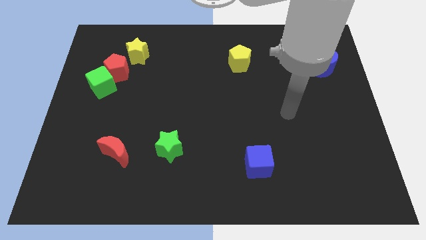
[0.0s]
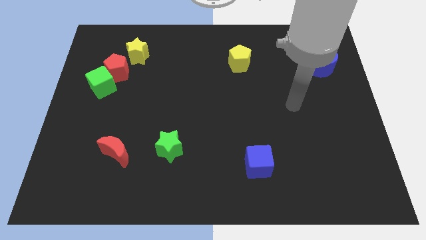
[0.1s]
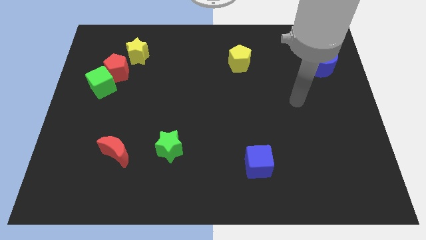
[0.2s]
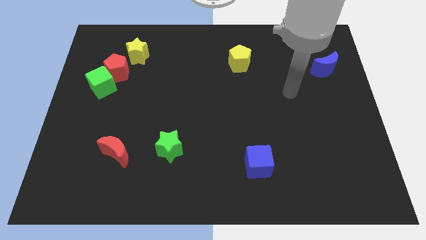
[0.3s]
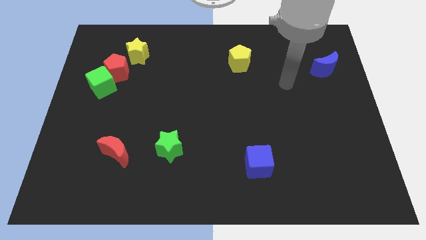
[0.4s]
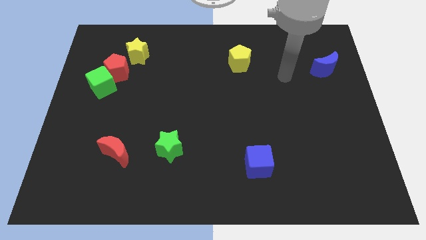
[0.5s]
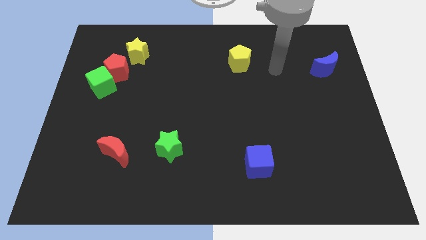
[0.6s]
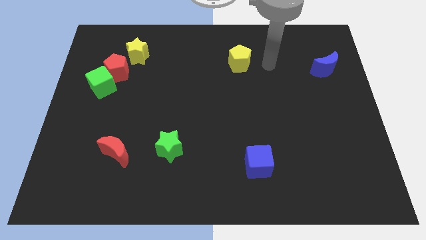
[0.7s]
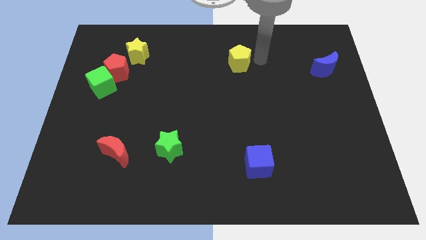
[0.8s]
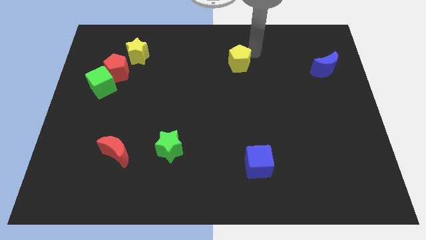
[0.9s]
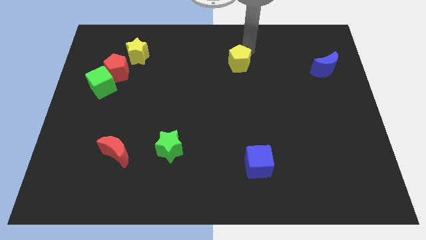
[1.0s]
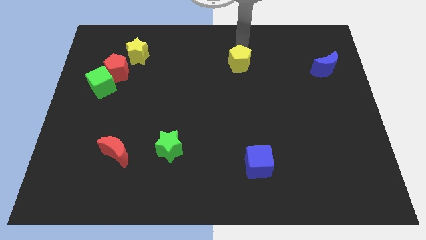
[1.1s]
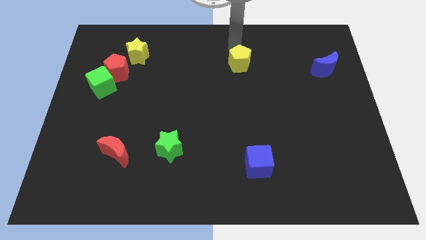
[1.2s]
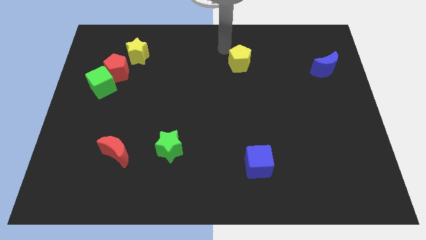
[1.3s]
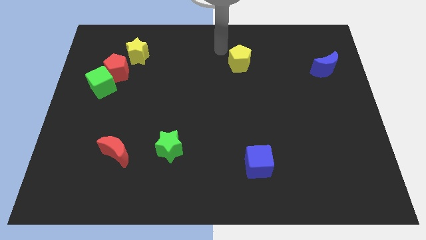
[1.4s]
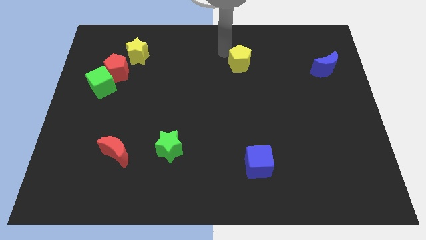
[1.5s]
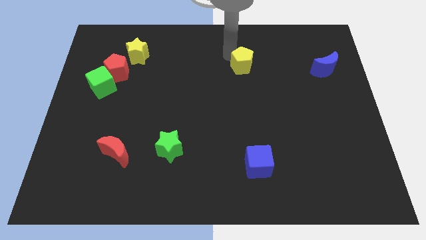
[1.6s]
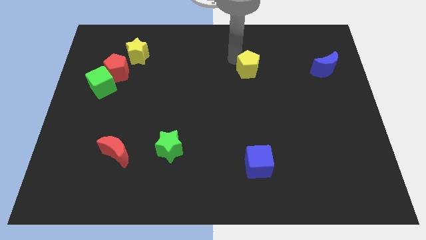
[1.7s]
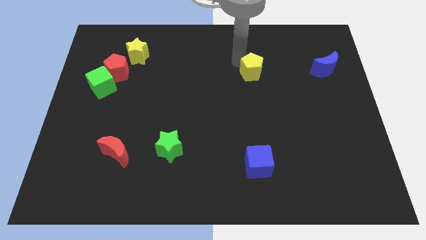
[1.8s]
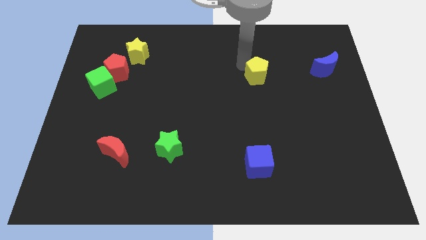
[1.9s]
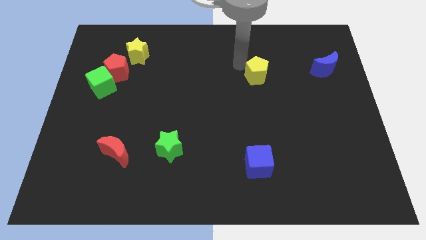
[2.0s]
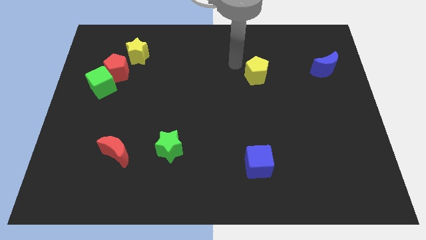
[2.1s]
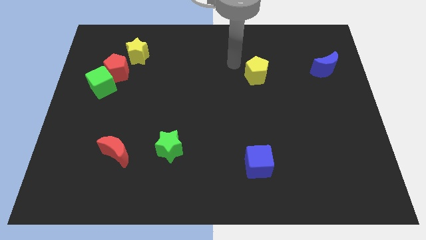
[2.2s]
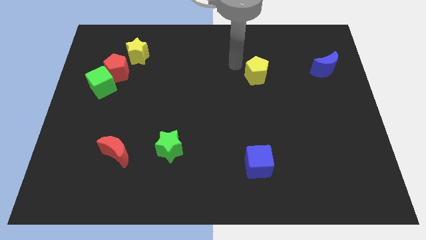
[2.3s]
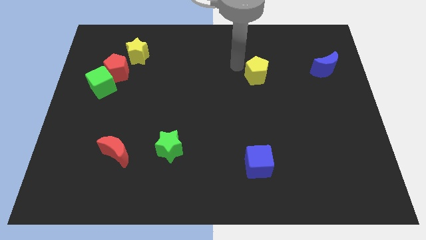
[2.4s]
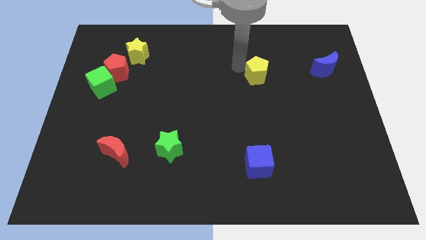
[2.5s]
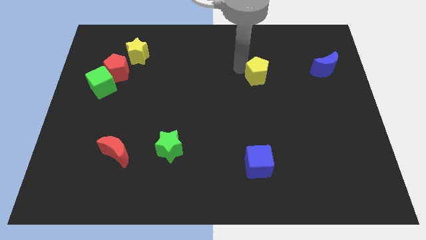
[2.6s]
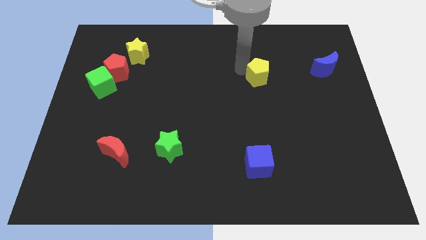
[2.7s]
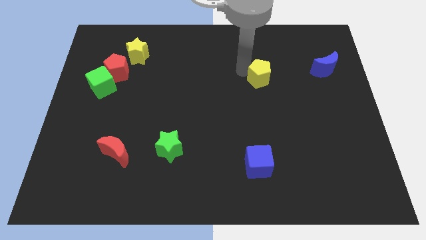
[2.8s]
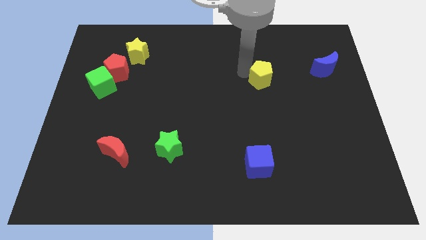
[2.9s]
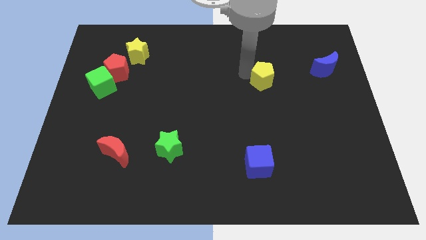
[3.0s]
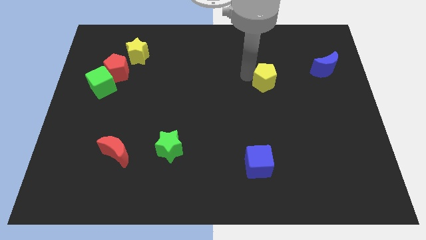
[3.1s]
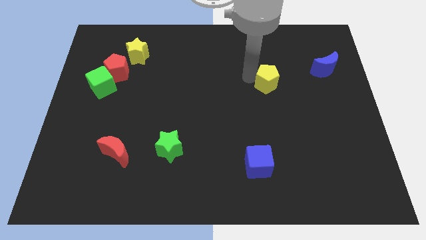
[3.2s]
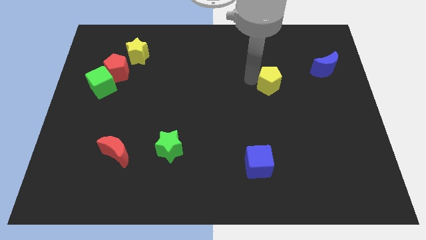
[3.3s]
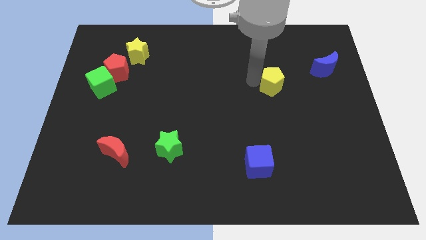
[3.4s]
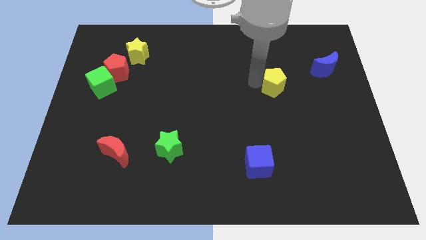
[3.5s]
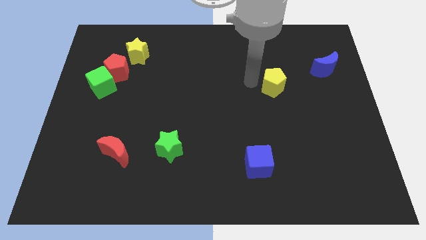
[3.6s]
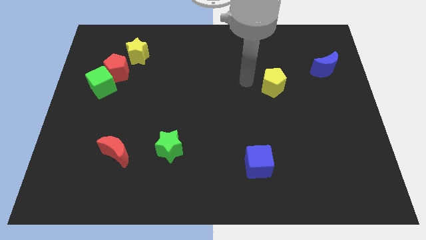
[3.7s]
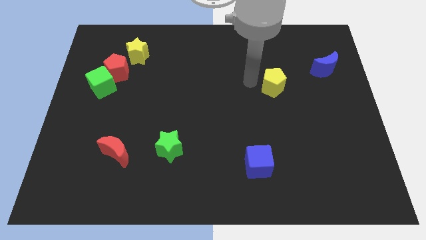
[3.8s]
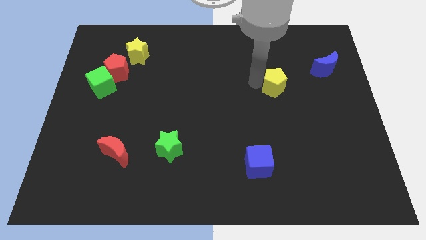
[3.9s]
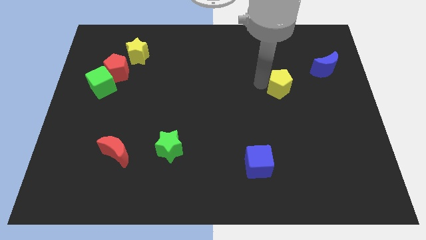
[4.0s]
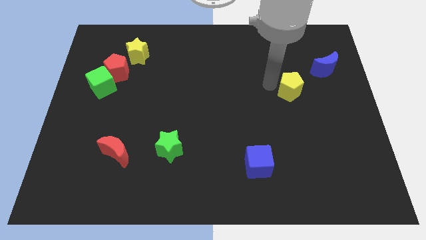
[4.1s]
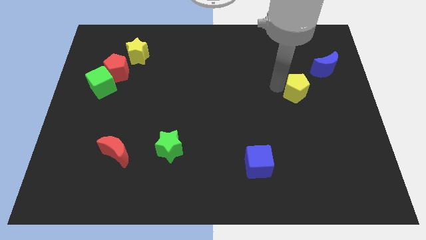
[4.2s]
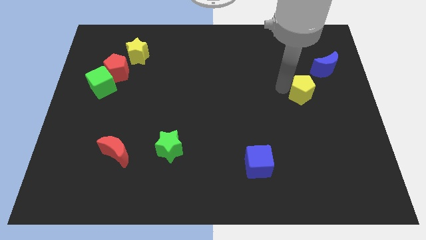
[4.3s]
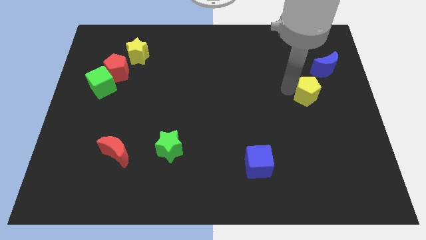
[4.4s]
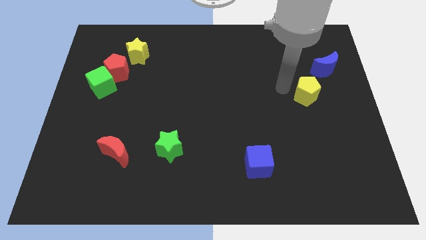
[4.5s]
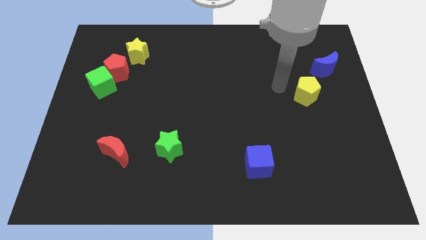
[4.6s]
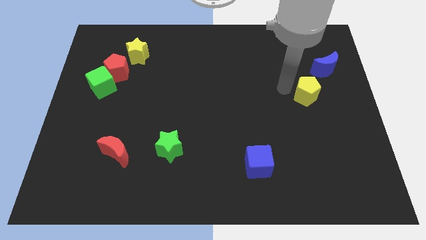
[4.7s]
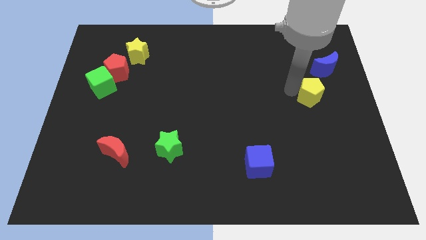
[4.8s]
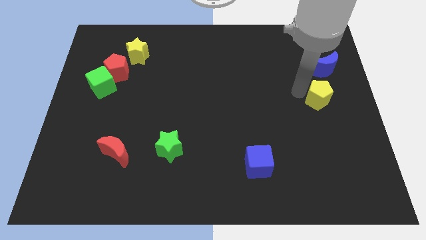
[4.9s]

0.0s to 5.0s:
move the yellow pentagon to the bottom of the blue moon

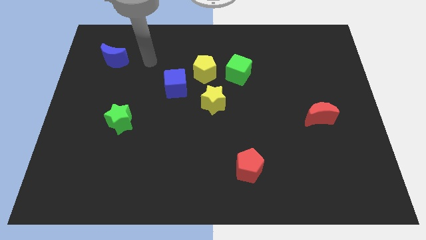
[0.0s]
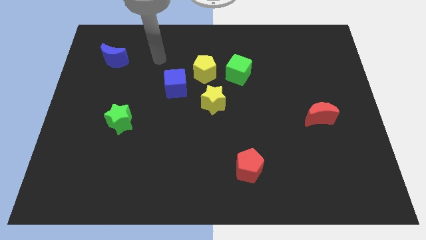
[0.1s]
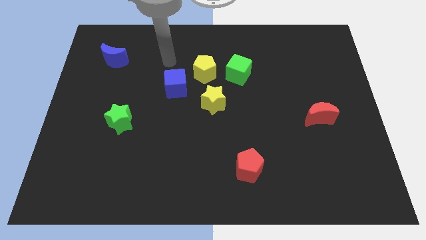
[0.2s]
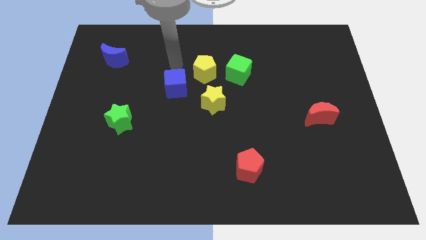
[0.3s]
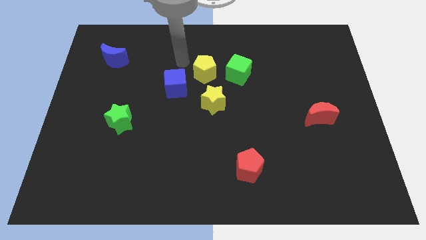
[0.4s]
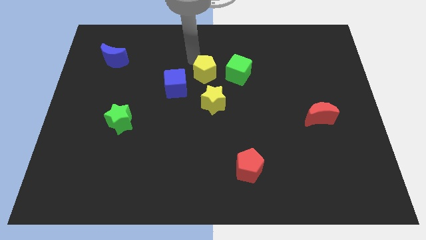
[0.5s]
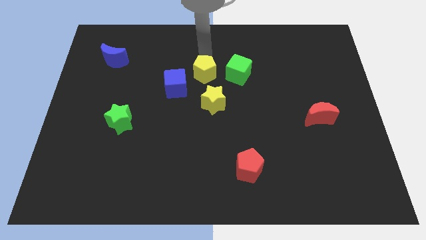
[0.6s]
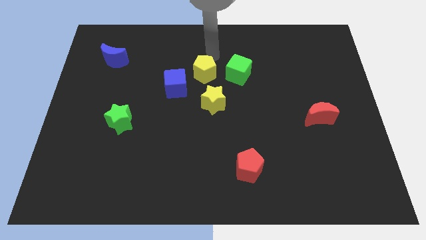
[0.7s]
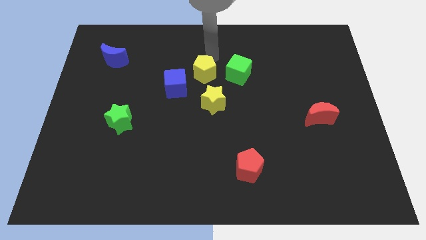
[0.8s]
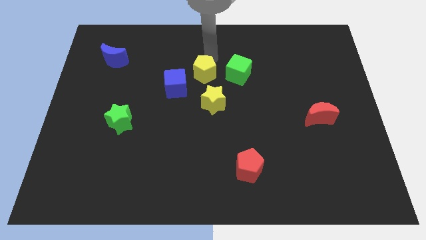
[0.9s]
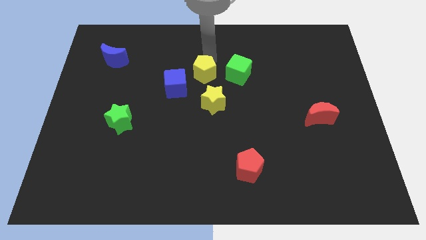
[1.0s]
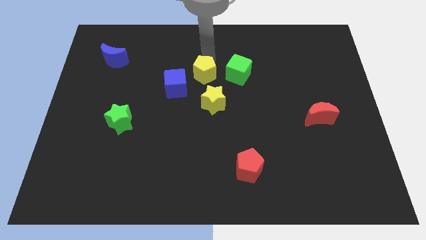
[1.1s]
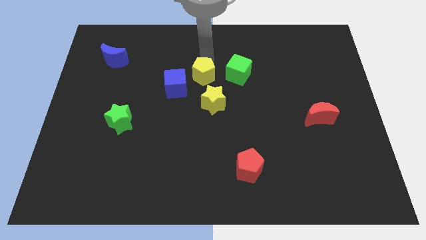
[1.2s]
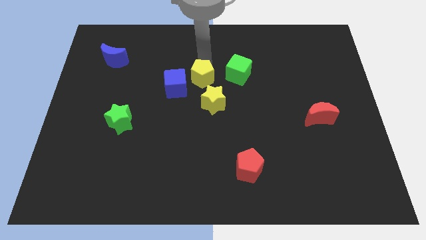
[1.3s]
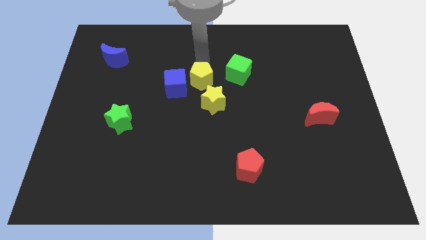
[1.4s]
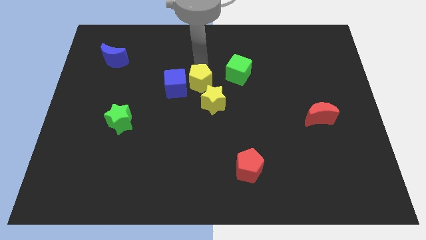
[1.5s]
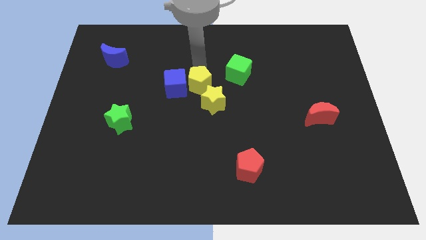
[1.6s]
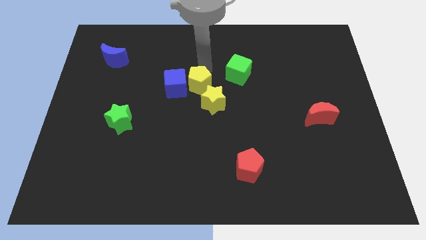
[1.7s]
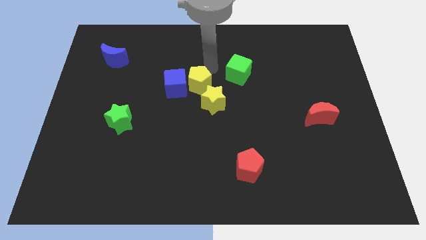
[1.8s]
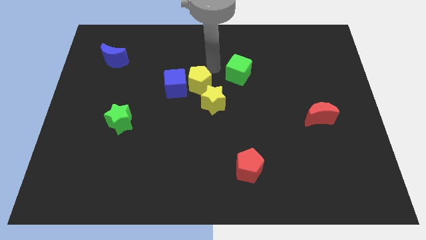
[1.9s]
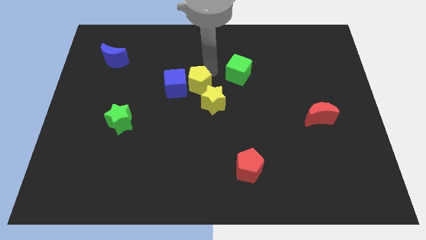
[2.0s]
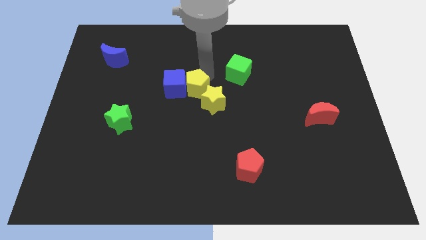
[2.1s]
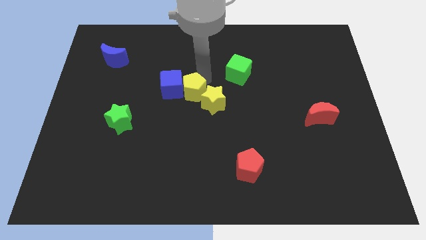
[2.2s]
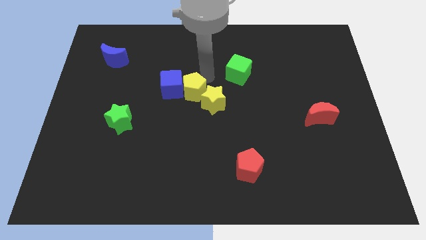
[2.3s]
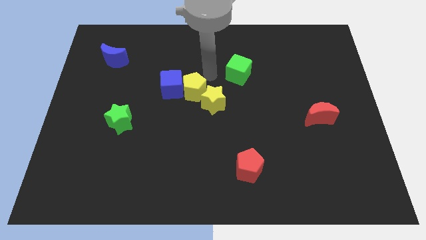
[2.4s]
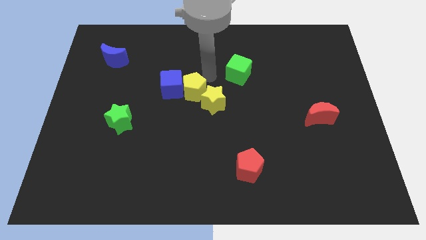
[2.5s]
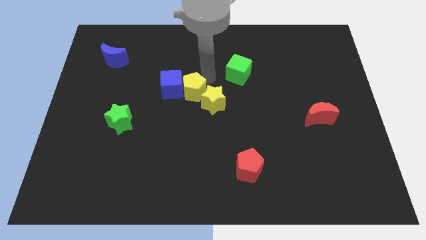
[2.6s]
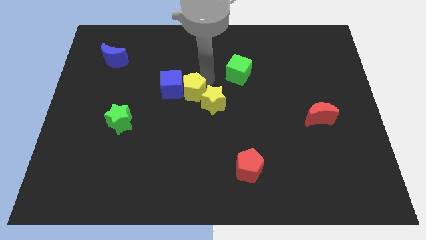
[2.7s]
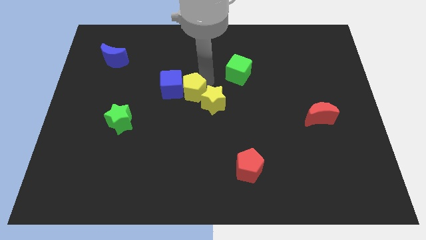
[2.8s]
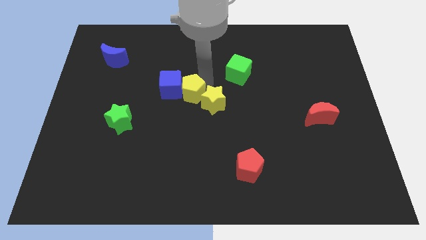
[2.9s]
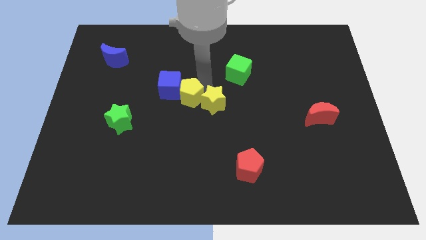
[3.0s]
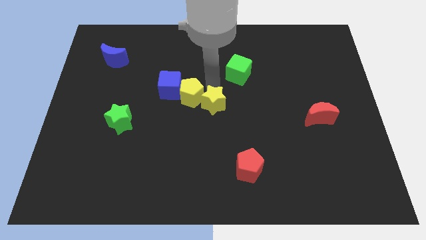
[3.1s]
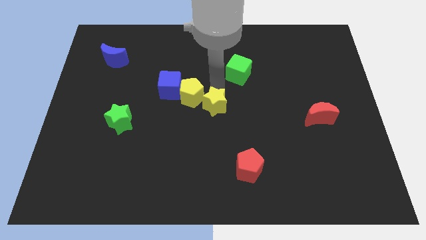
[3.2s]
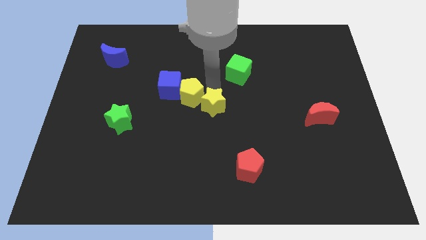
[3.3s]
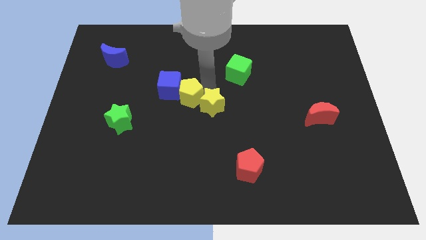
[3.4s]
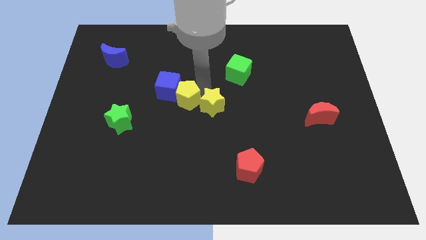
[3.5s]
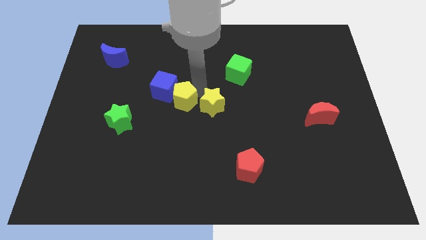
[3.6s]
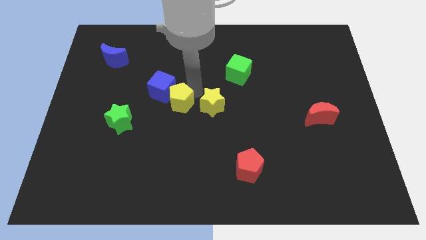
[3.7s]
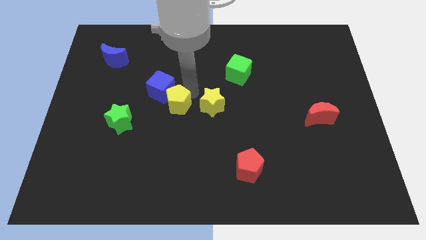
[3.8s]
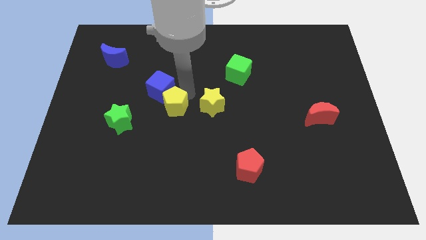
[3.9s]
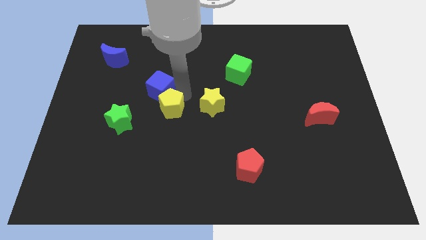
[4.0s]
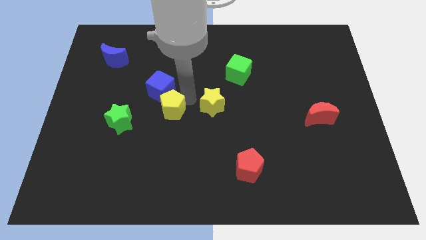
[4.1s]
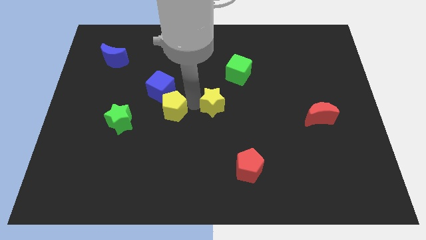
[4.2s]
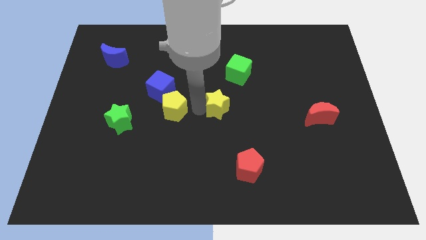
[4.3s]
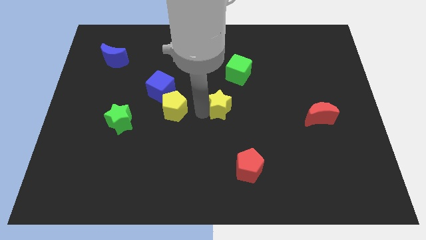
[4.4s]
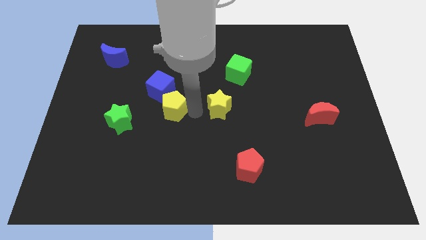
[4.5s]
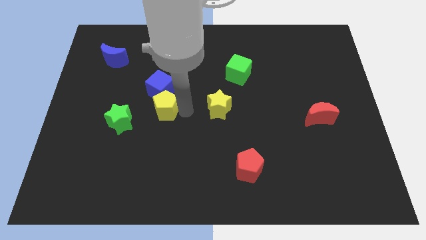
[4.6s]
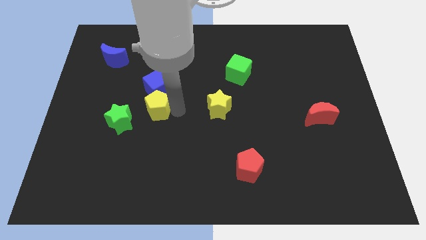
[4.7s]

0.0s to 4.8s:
put the yellow pentagon to the bottom left of the blue cube
